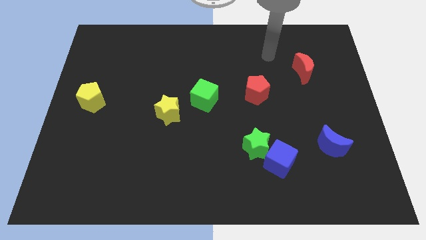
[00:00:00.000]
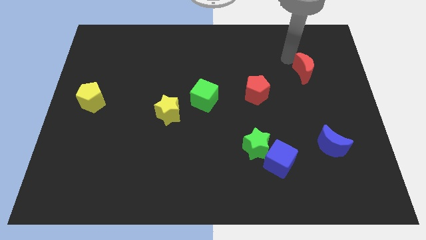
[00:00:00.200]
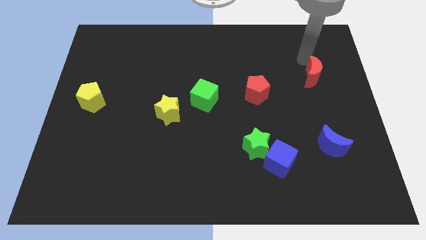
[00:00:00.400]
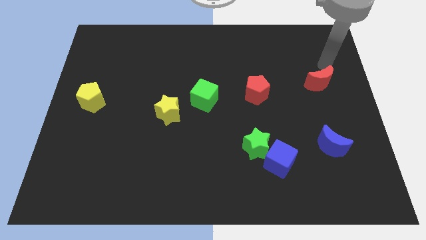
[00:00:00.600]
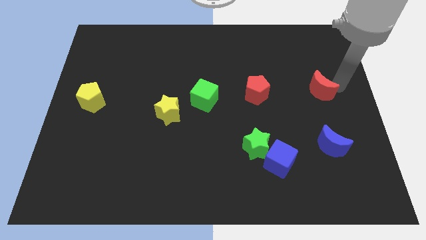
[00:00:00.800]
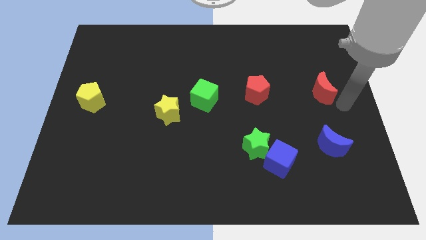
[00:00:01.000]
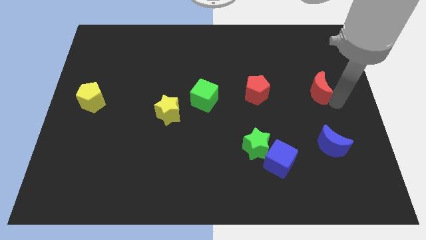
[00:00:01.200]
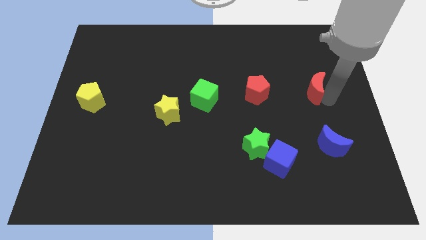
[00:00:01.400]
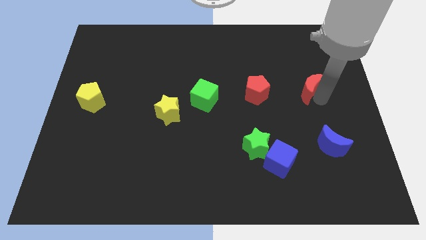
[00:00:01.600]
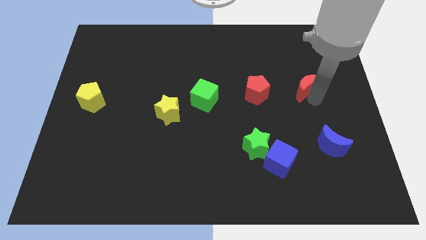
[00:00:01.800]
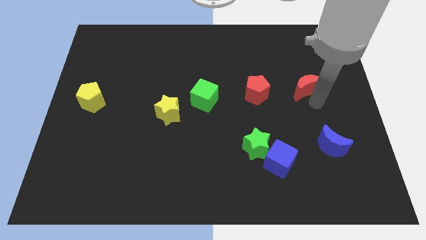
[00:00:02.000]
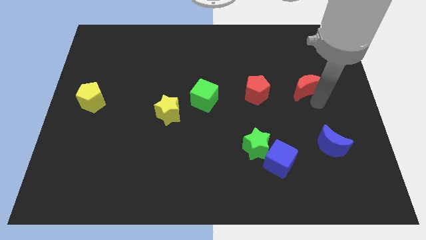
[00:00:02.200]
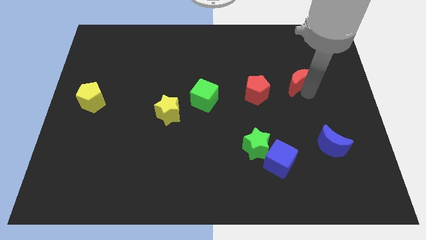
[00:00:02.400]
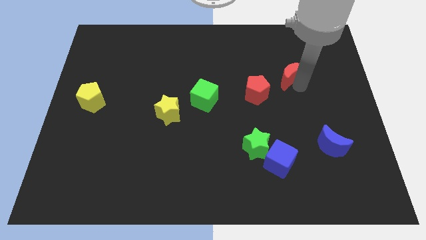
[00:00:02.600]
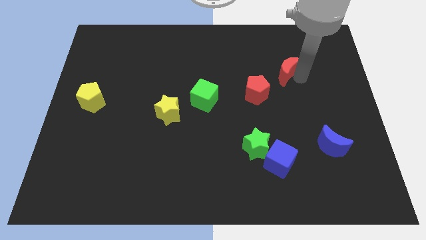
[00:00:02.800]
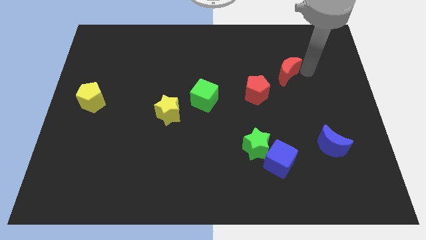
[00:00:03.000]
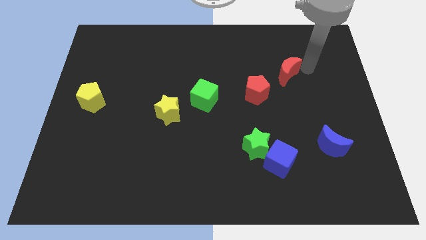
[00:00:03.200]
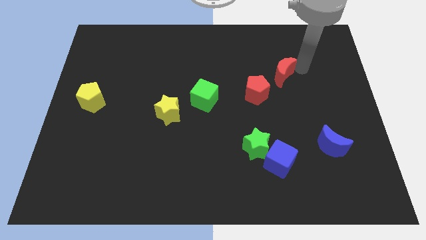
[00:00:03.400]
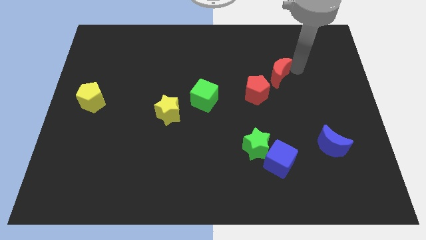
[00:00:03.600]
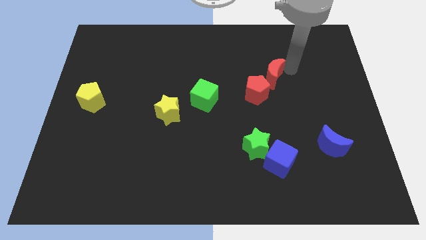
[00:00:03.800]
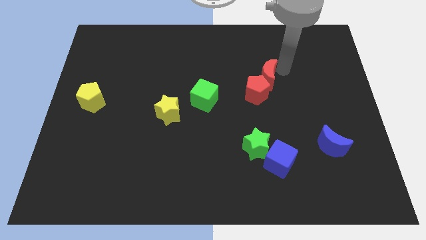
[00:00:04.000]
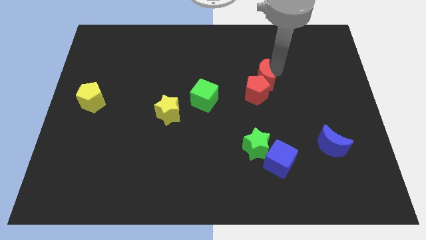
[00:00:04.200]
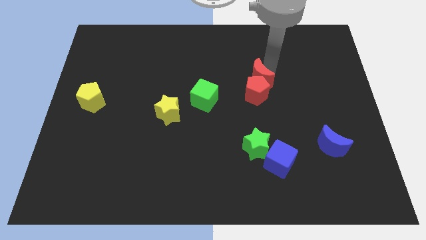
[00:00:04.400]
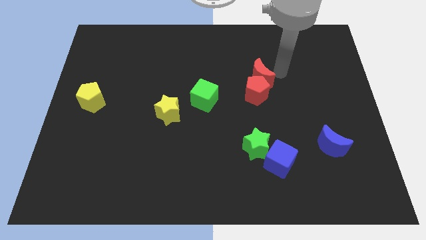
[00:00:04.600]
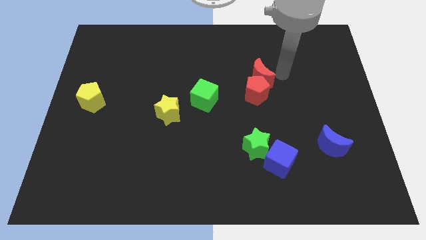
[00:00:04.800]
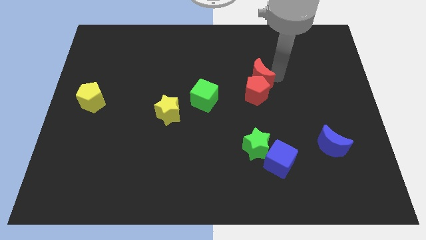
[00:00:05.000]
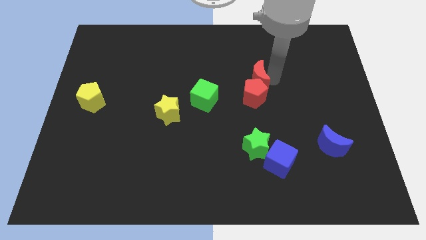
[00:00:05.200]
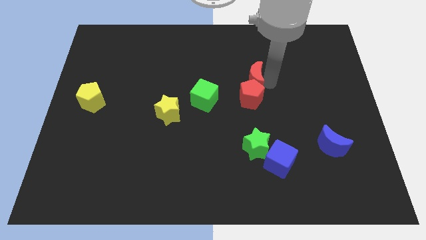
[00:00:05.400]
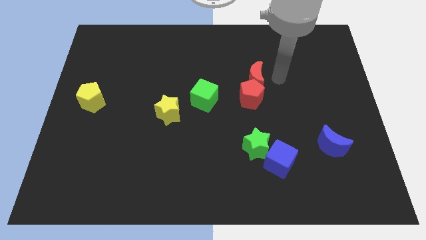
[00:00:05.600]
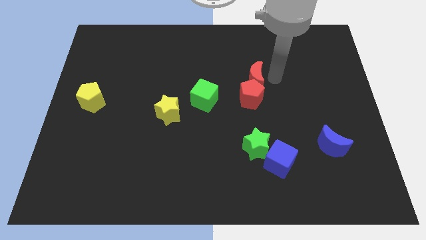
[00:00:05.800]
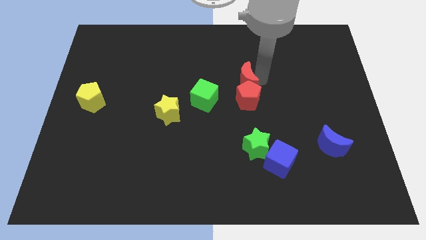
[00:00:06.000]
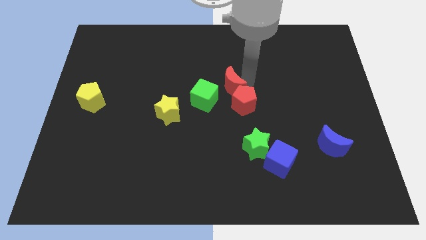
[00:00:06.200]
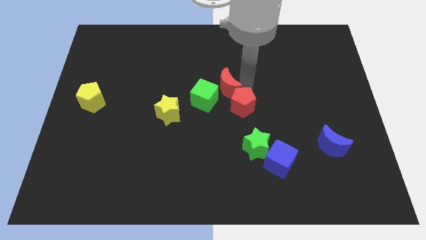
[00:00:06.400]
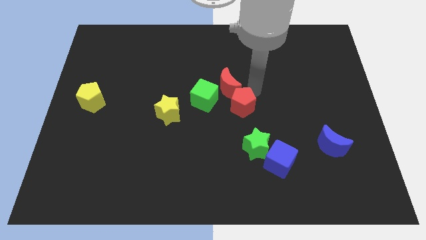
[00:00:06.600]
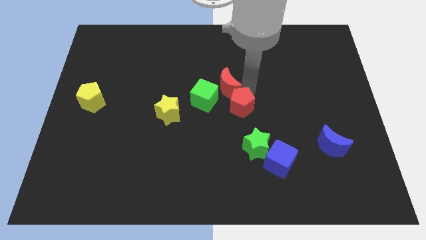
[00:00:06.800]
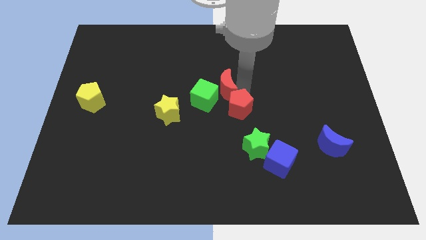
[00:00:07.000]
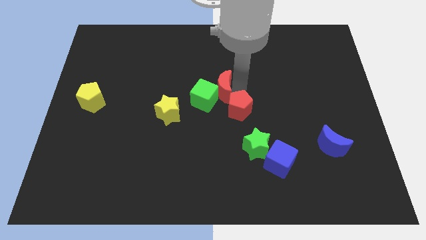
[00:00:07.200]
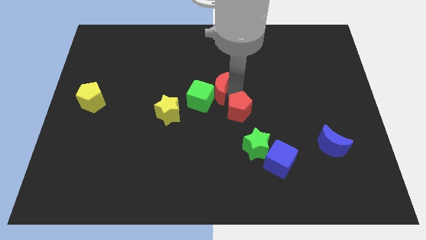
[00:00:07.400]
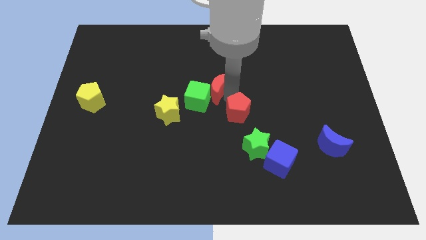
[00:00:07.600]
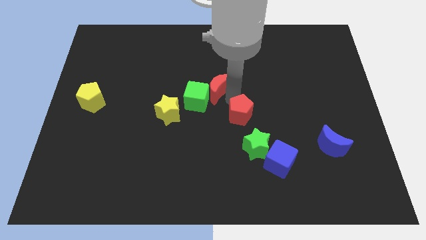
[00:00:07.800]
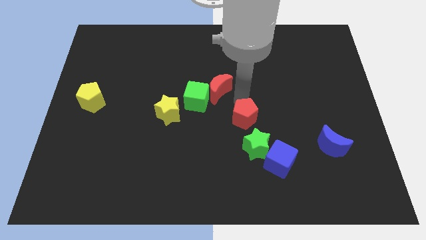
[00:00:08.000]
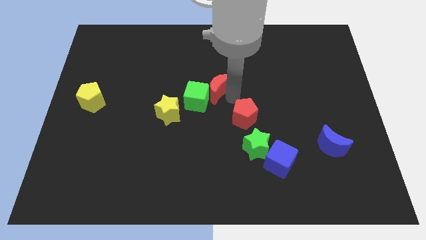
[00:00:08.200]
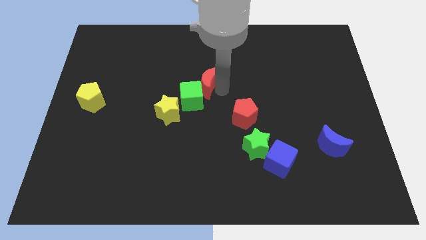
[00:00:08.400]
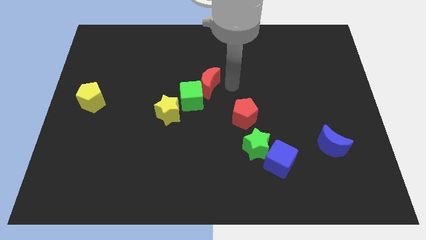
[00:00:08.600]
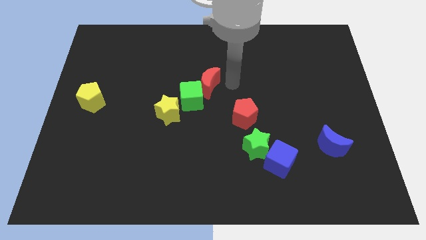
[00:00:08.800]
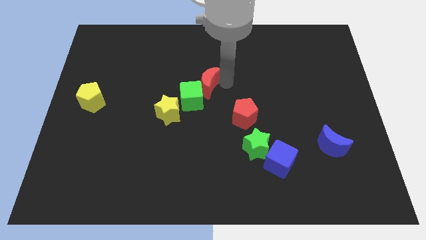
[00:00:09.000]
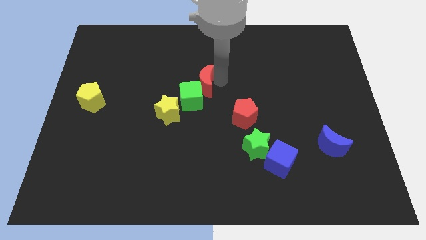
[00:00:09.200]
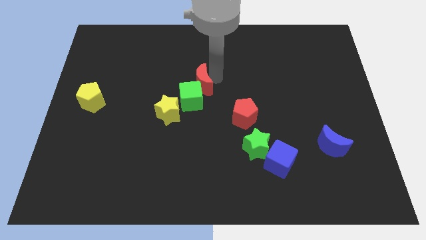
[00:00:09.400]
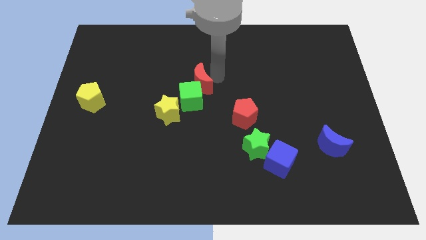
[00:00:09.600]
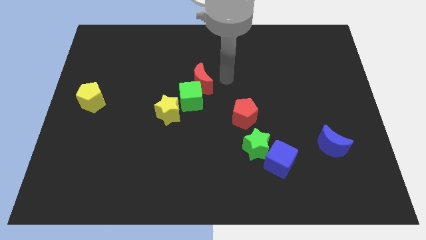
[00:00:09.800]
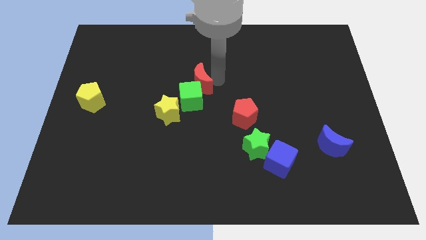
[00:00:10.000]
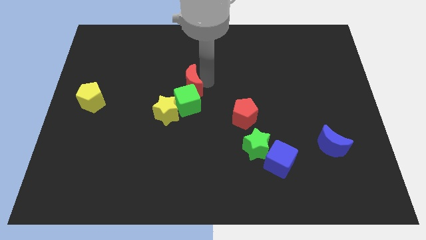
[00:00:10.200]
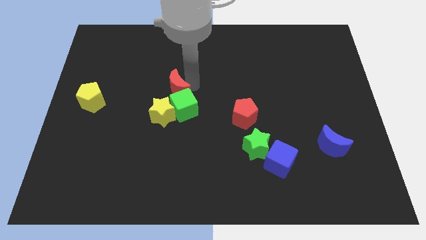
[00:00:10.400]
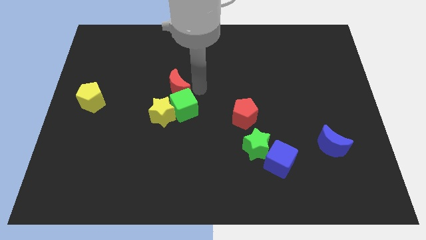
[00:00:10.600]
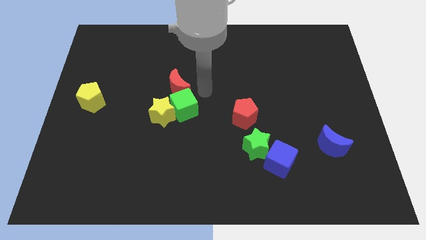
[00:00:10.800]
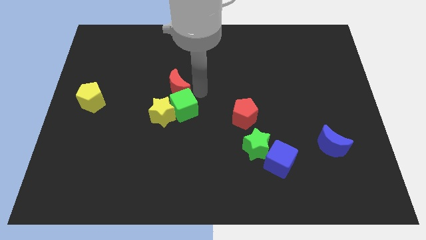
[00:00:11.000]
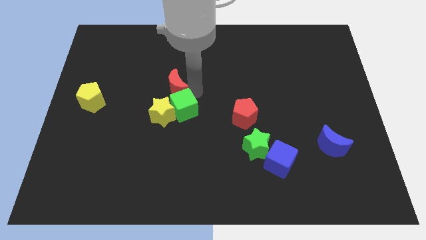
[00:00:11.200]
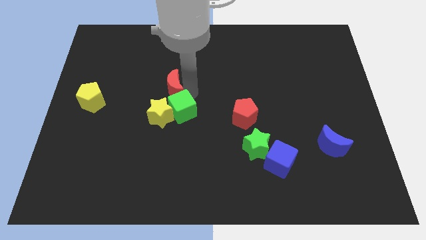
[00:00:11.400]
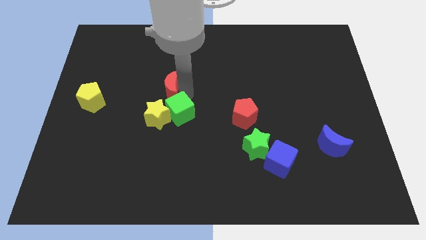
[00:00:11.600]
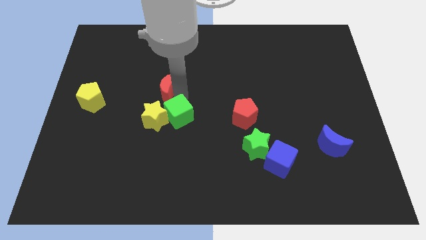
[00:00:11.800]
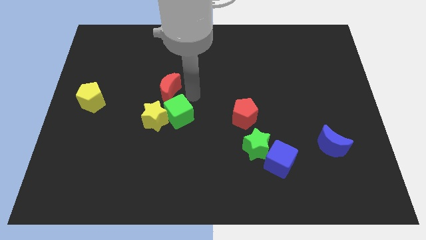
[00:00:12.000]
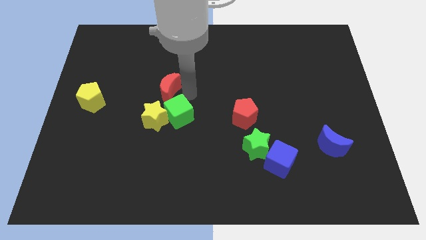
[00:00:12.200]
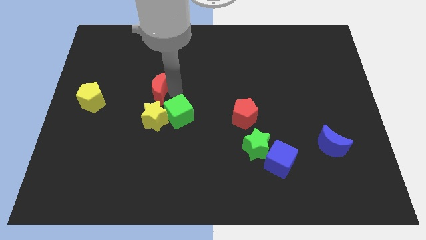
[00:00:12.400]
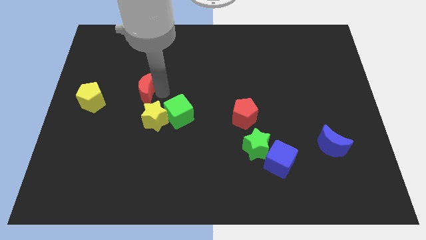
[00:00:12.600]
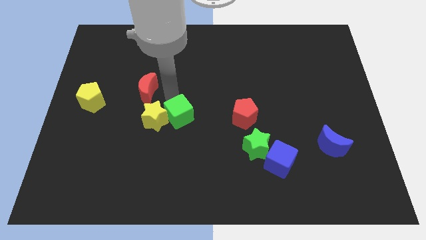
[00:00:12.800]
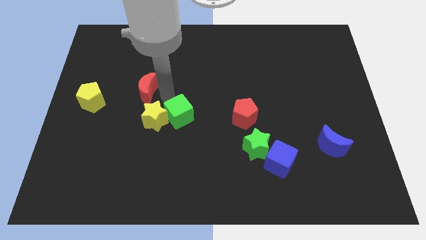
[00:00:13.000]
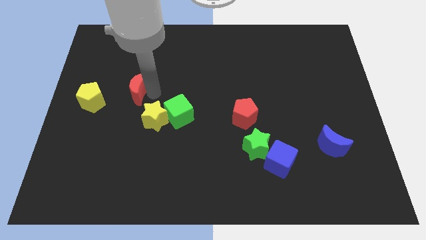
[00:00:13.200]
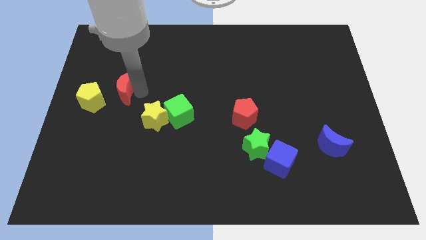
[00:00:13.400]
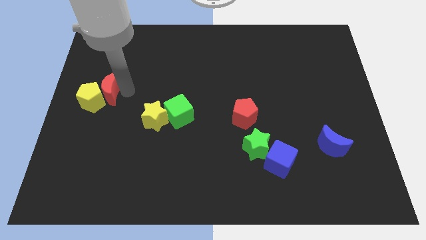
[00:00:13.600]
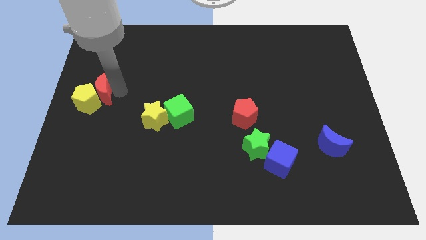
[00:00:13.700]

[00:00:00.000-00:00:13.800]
move the red moon to the left side of the board
